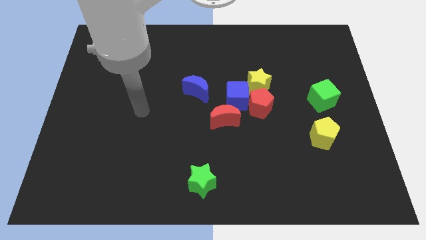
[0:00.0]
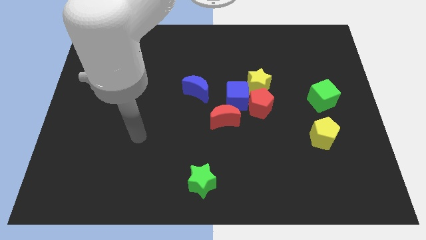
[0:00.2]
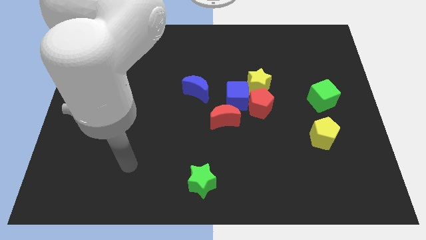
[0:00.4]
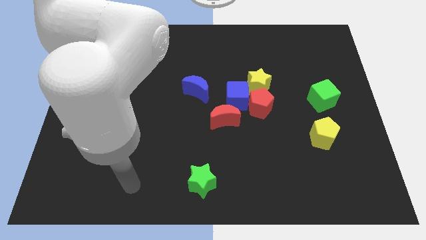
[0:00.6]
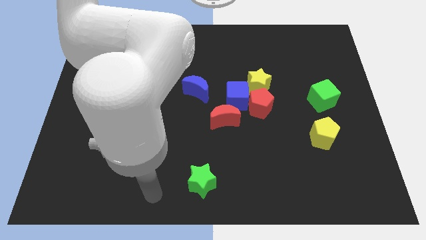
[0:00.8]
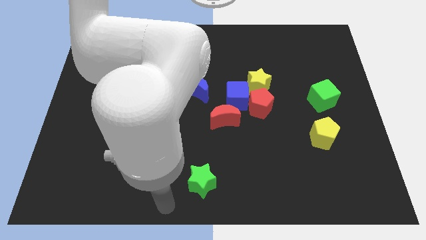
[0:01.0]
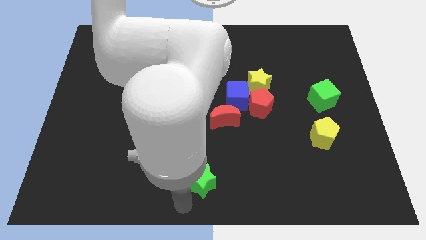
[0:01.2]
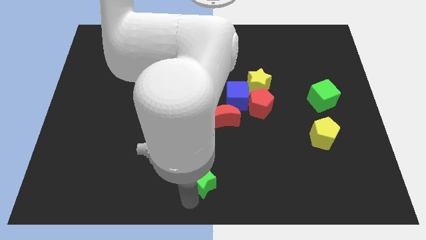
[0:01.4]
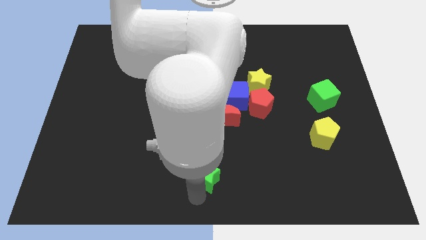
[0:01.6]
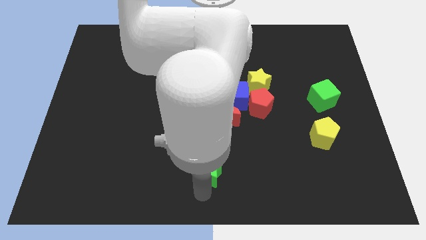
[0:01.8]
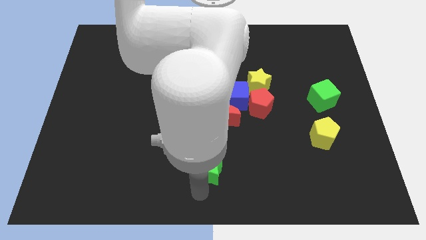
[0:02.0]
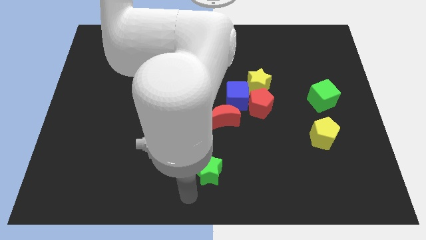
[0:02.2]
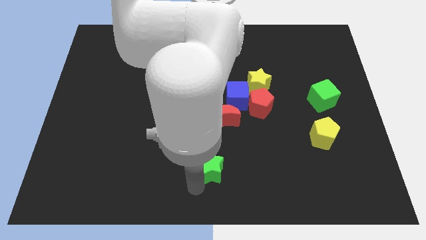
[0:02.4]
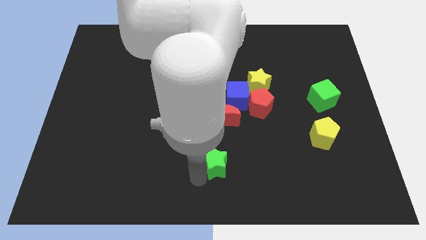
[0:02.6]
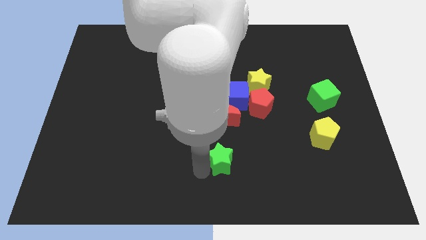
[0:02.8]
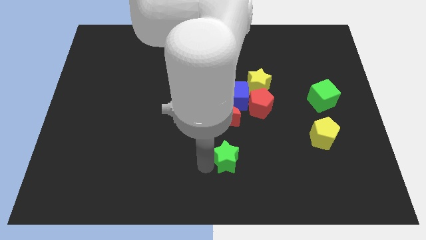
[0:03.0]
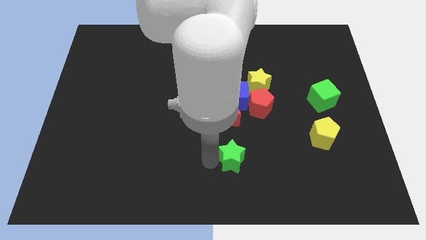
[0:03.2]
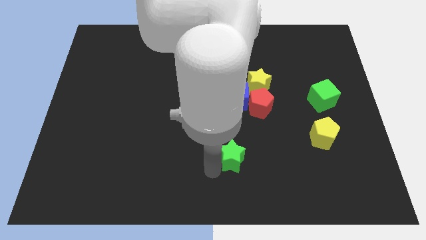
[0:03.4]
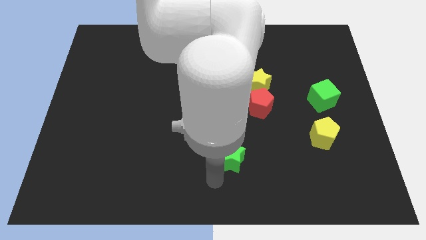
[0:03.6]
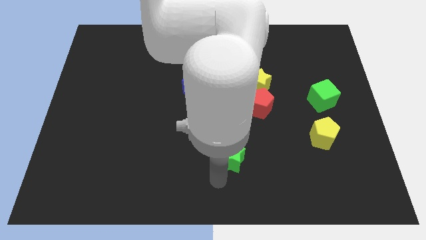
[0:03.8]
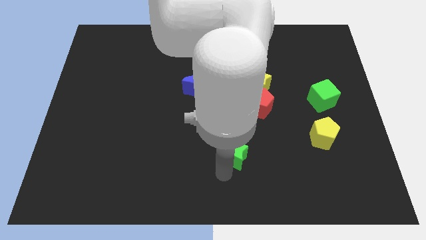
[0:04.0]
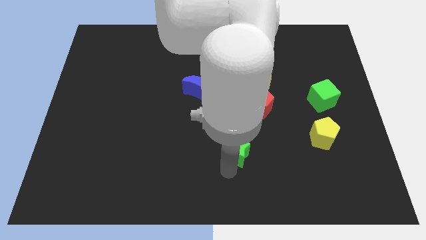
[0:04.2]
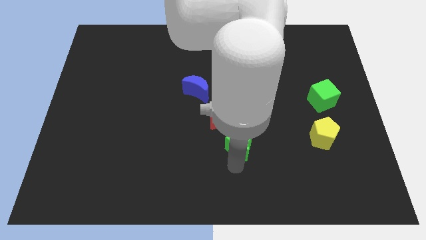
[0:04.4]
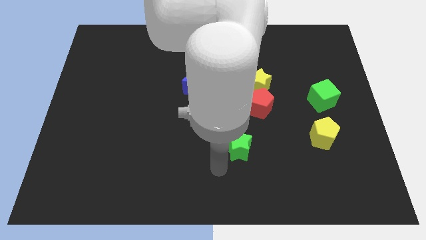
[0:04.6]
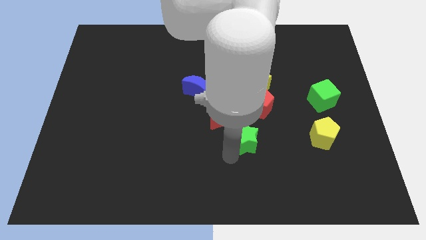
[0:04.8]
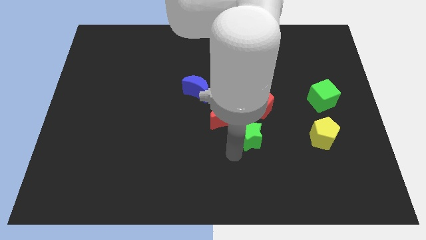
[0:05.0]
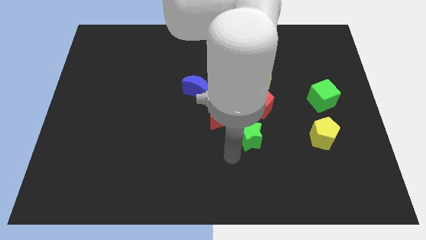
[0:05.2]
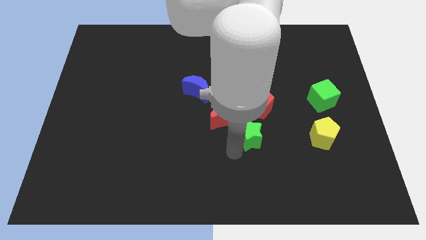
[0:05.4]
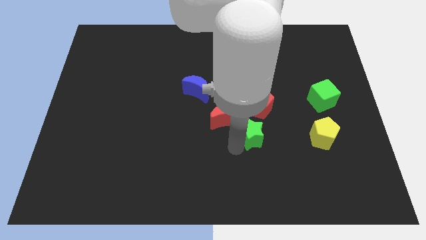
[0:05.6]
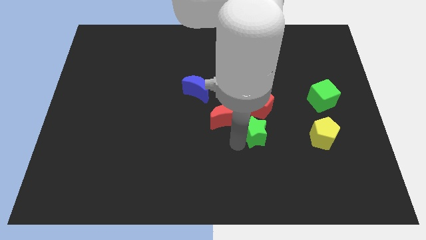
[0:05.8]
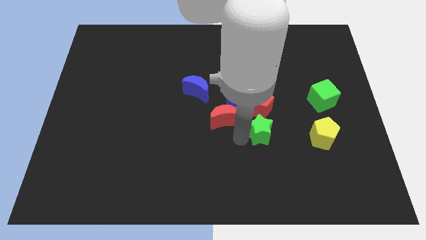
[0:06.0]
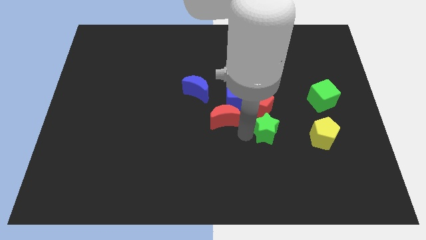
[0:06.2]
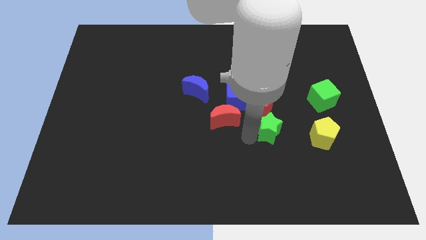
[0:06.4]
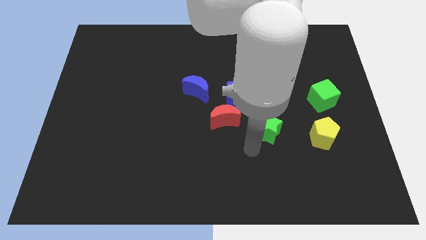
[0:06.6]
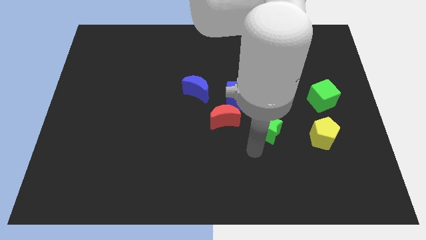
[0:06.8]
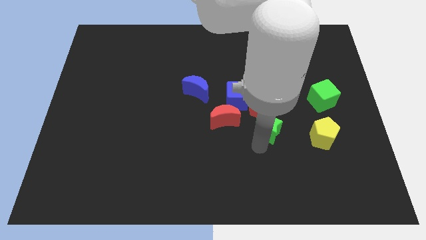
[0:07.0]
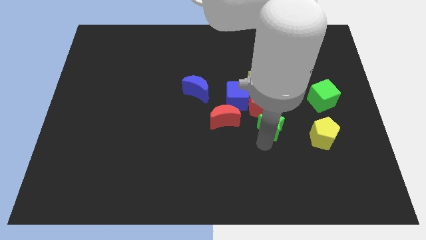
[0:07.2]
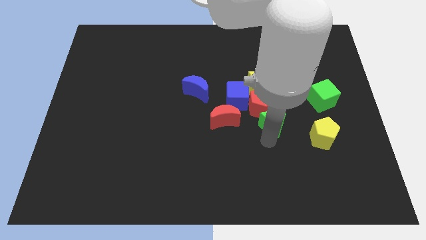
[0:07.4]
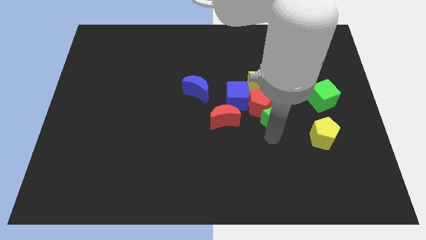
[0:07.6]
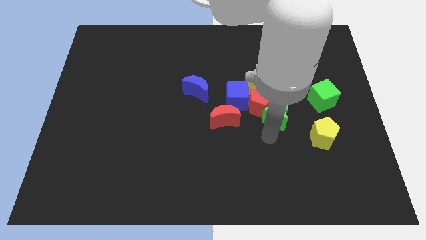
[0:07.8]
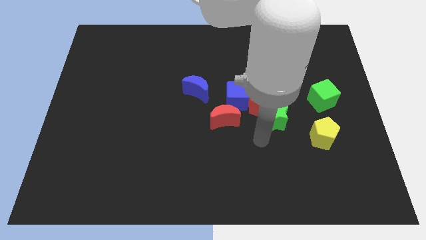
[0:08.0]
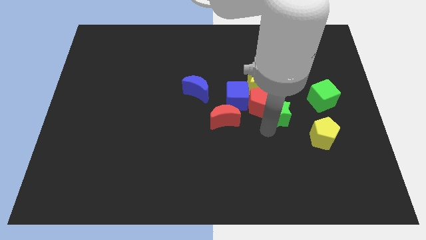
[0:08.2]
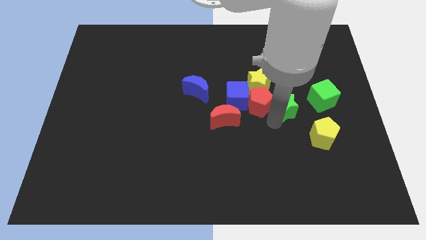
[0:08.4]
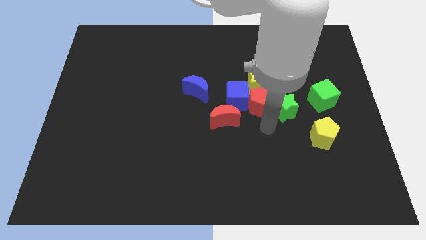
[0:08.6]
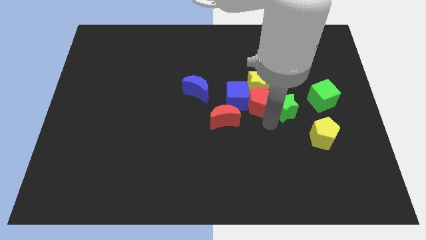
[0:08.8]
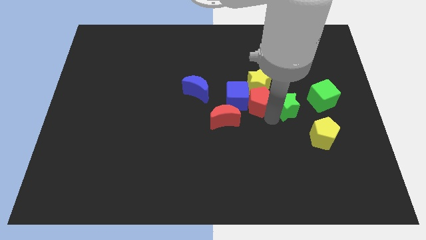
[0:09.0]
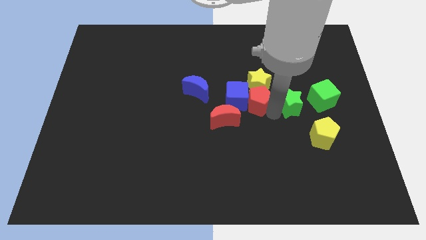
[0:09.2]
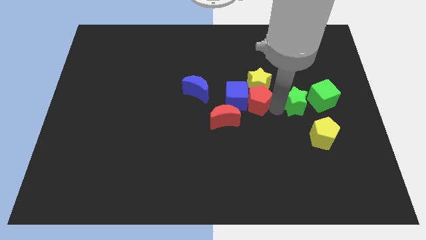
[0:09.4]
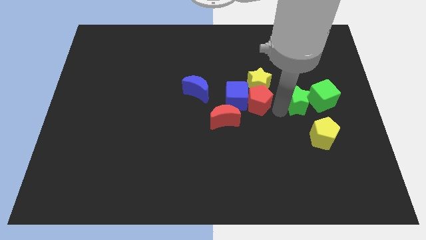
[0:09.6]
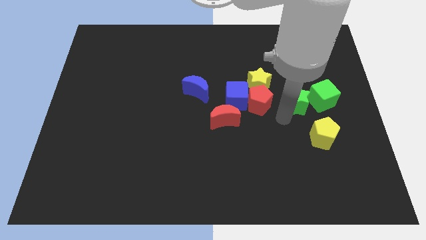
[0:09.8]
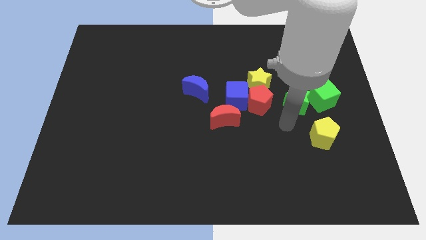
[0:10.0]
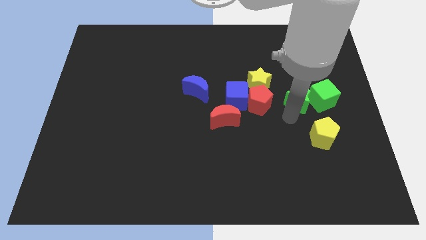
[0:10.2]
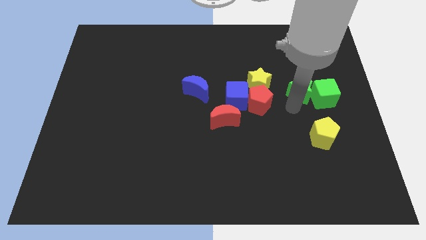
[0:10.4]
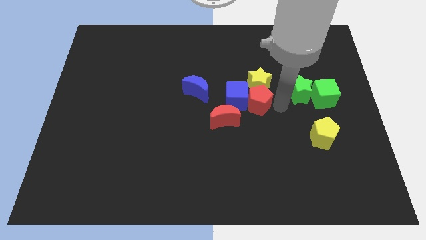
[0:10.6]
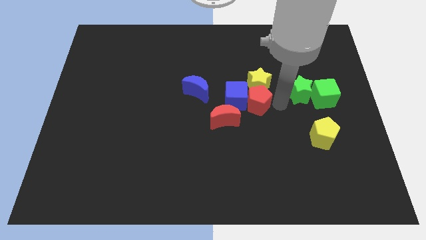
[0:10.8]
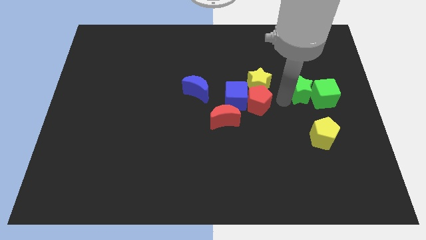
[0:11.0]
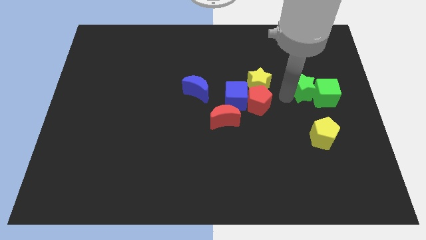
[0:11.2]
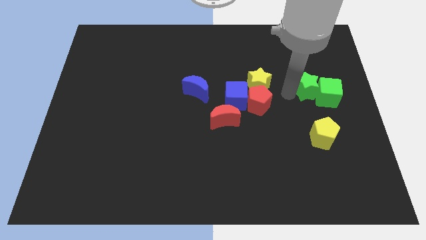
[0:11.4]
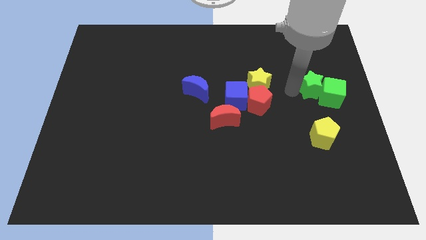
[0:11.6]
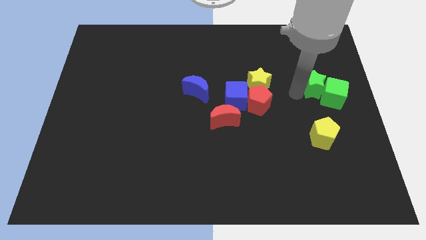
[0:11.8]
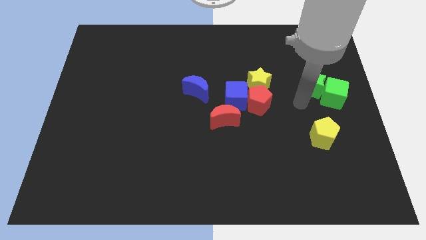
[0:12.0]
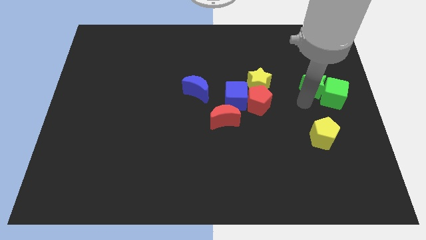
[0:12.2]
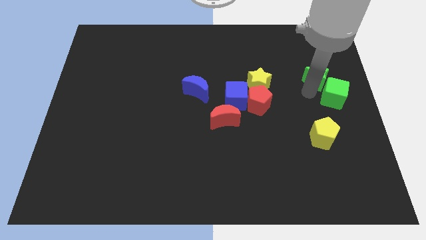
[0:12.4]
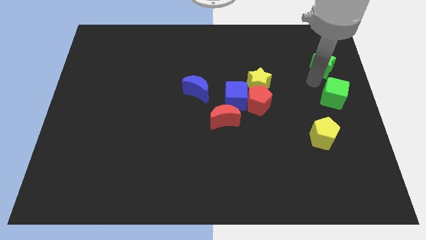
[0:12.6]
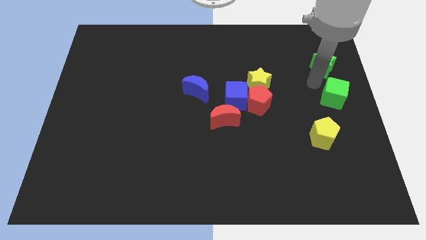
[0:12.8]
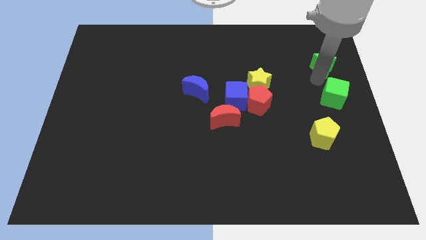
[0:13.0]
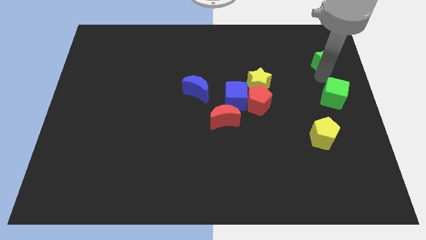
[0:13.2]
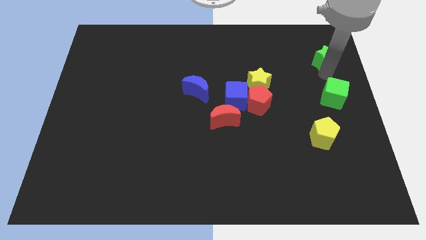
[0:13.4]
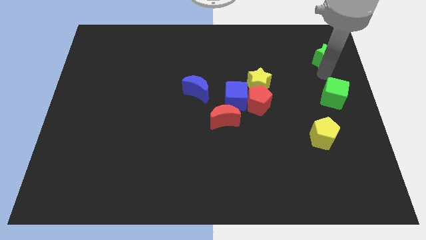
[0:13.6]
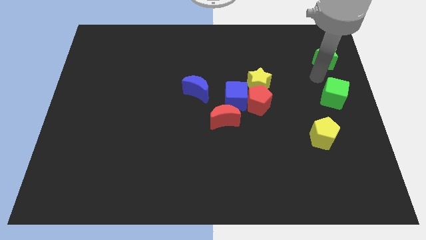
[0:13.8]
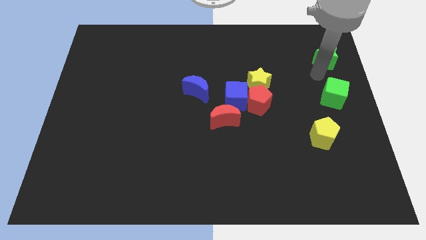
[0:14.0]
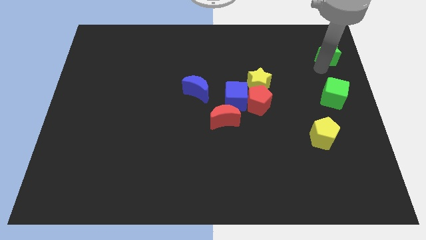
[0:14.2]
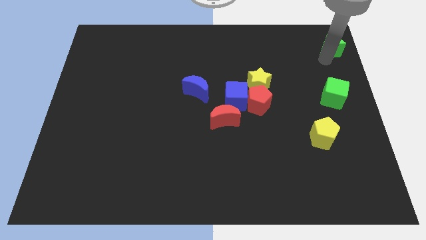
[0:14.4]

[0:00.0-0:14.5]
move the green star to the top right of the board
